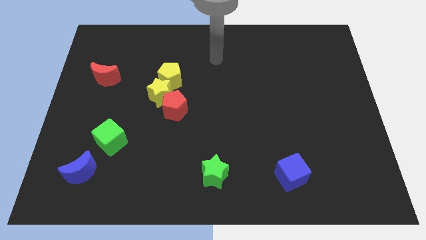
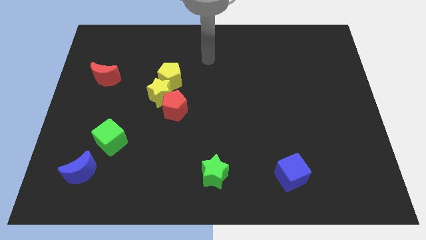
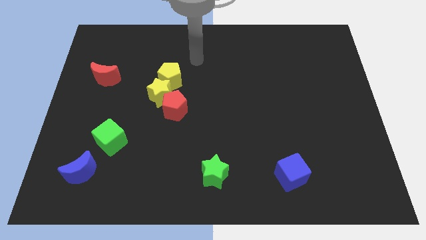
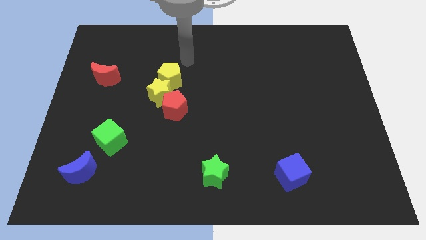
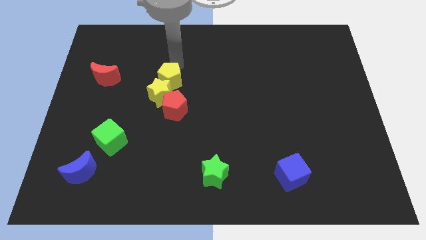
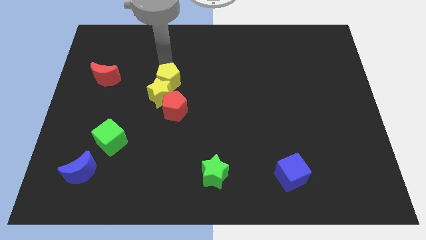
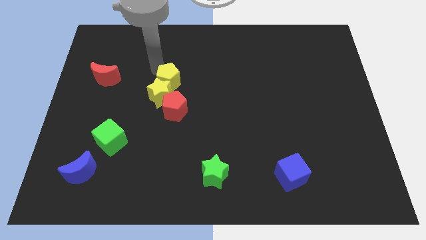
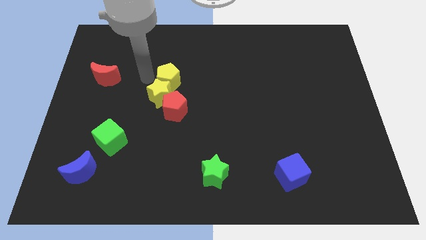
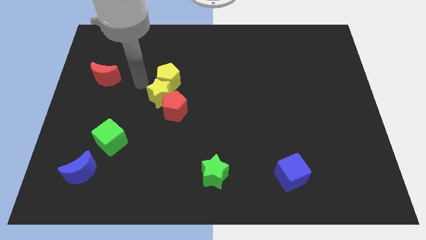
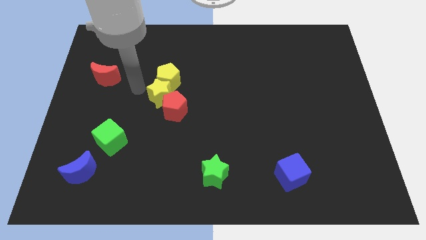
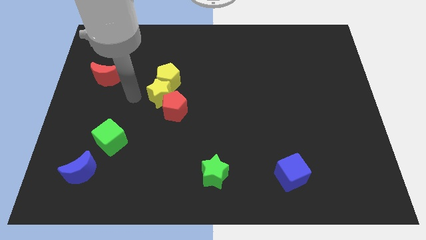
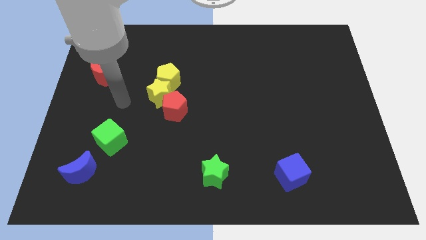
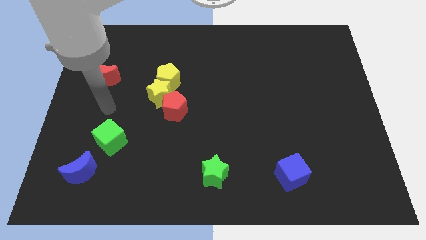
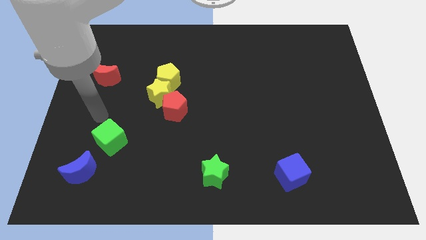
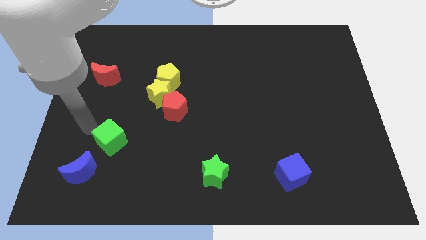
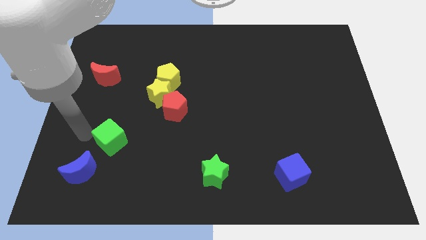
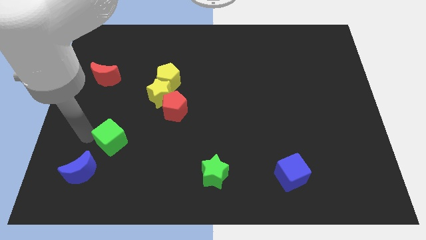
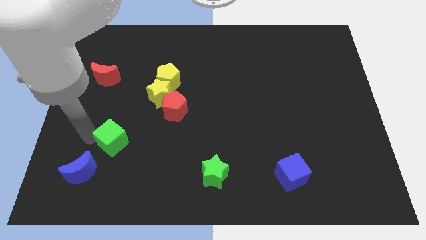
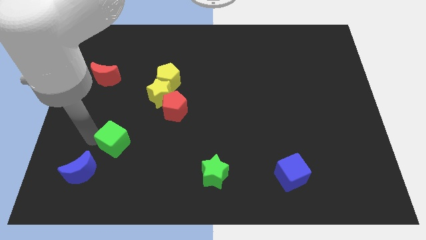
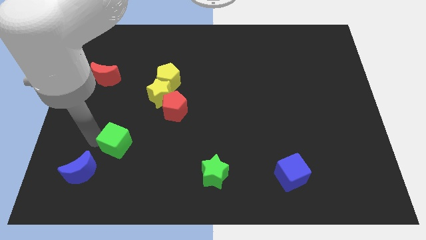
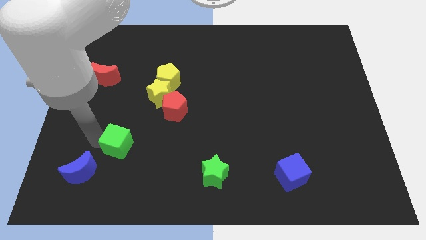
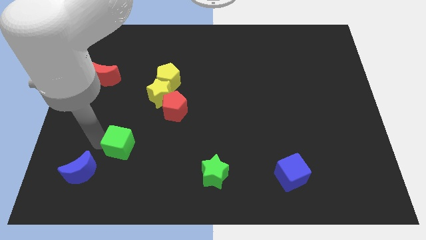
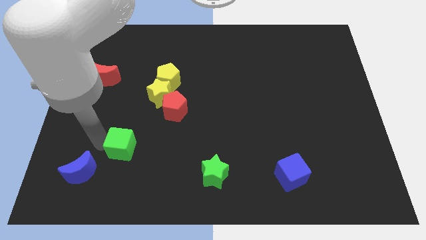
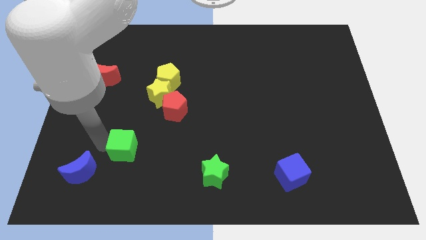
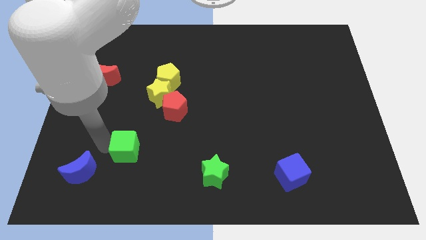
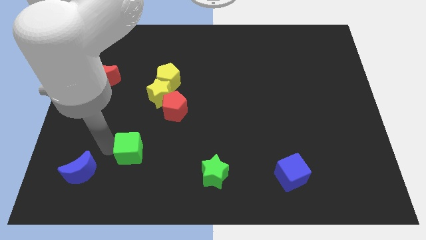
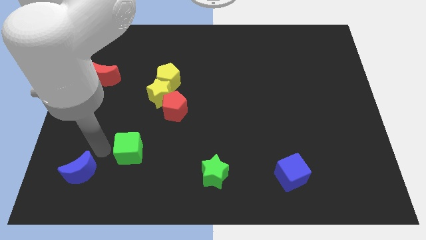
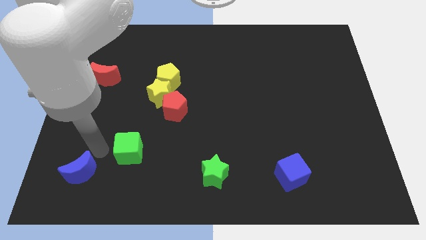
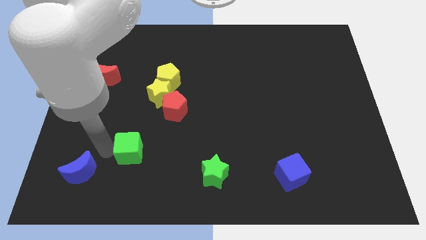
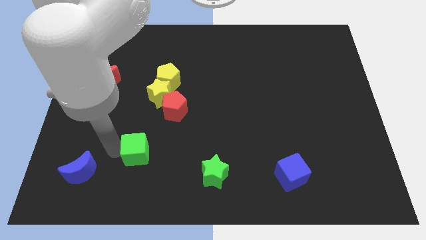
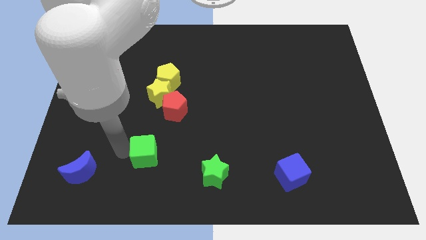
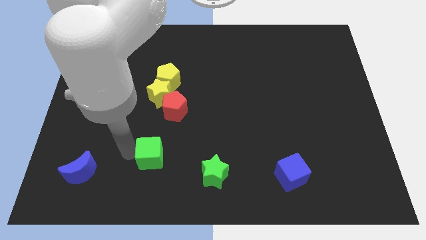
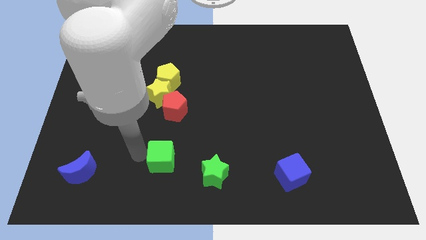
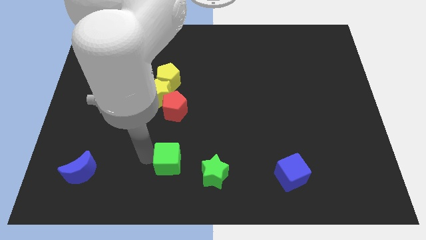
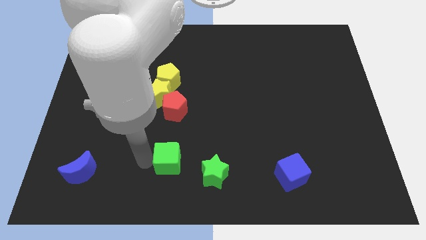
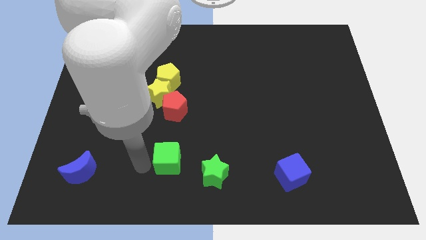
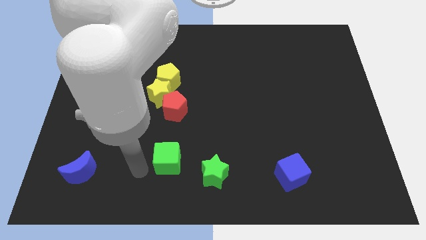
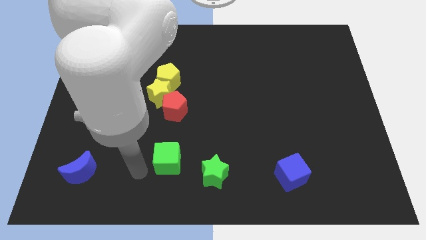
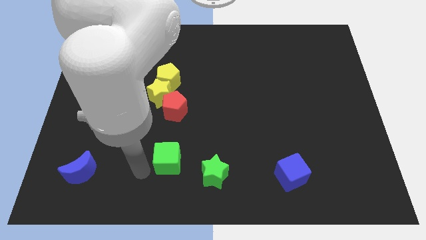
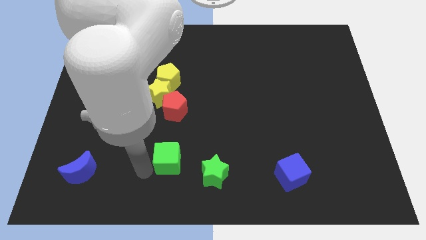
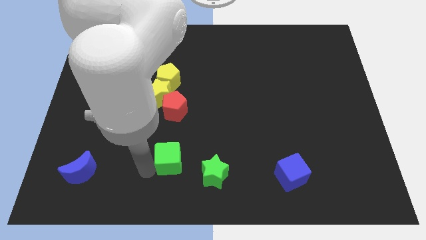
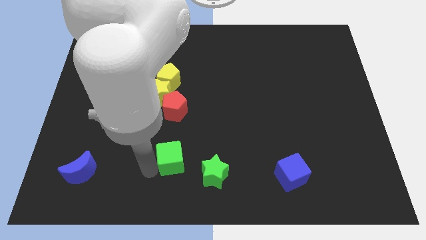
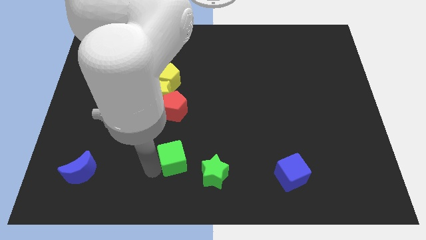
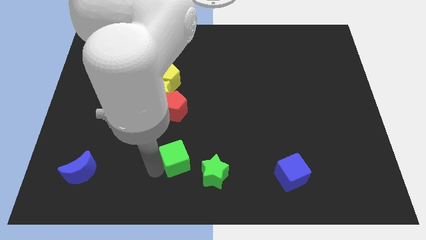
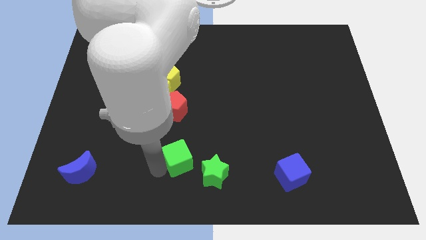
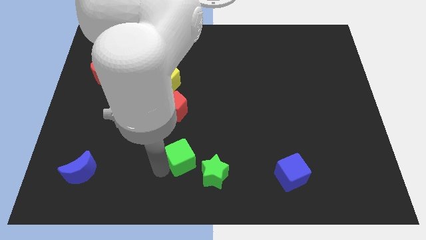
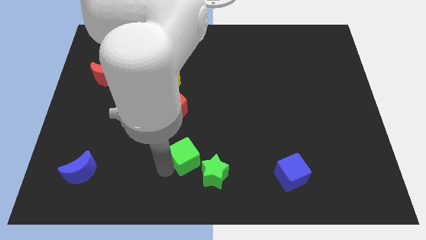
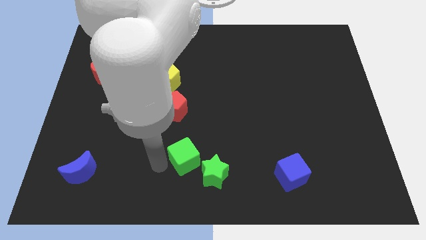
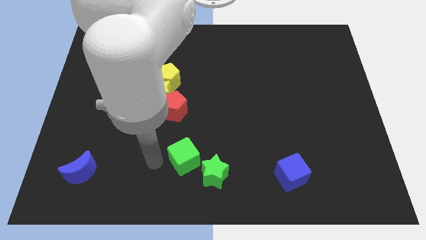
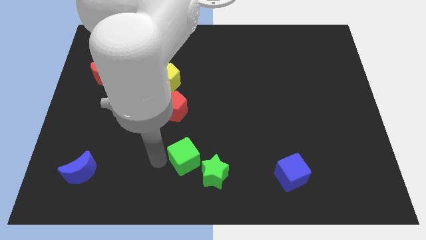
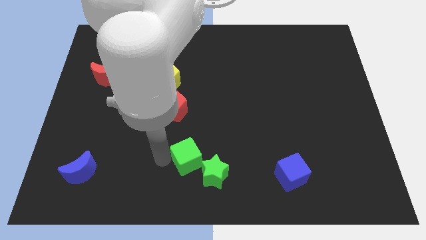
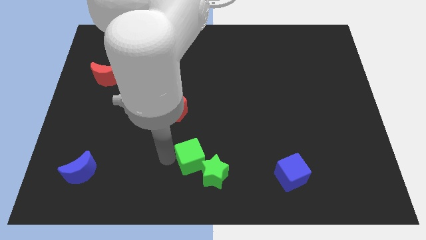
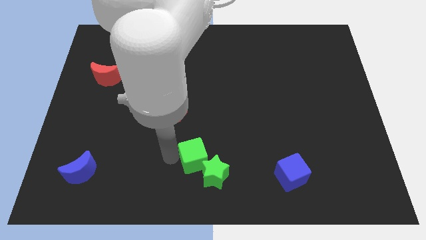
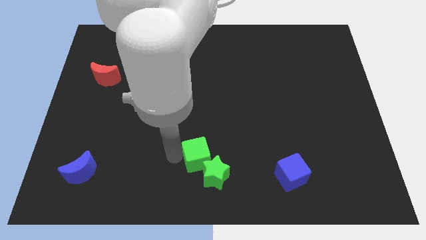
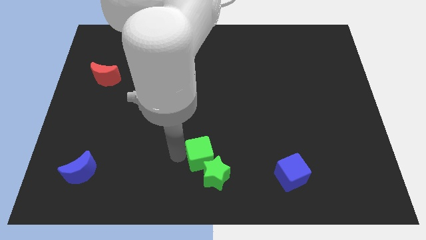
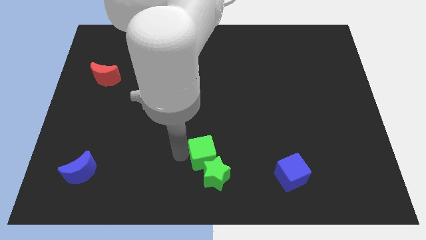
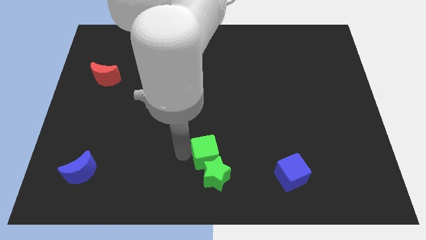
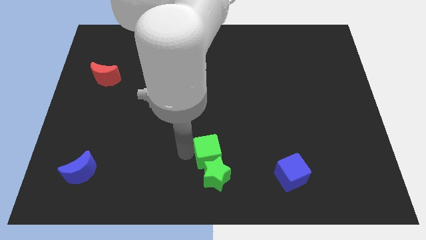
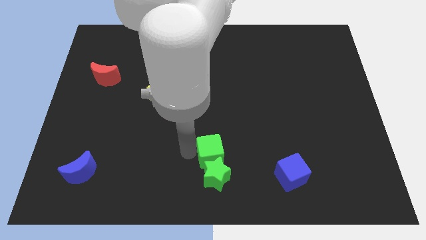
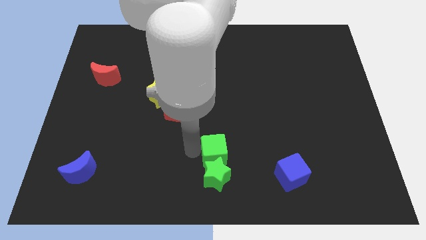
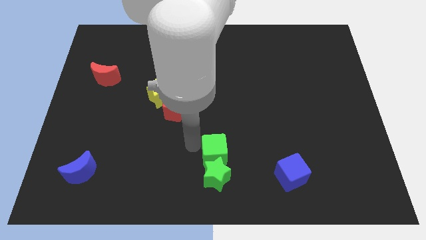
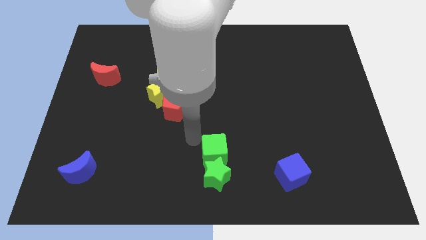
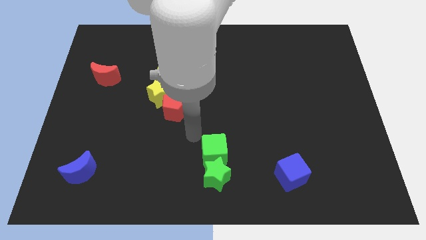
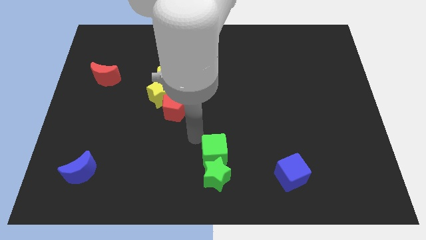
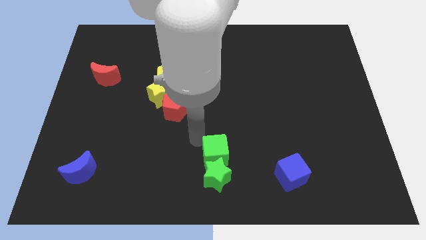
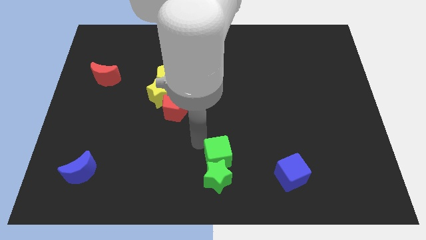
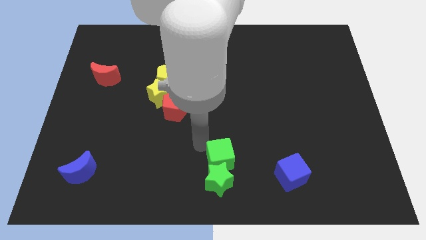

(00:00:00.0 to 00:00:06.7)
slide the green cube left of the blue cube

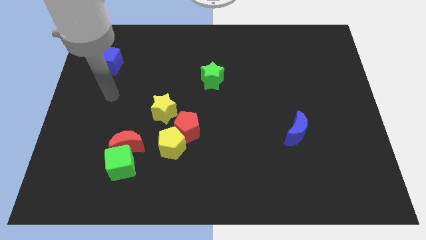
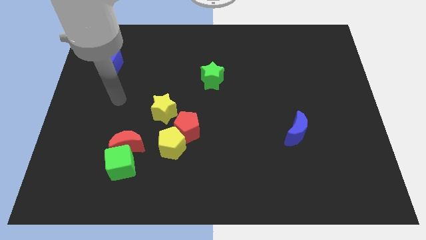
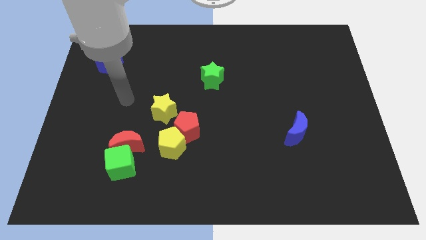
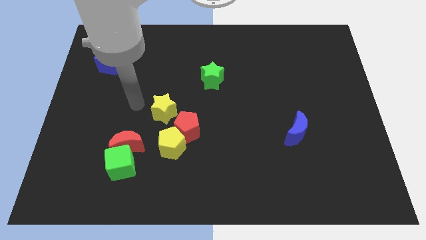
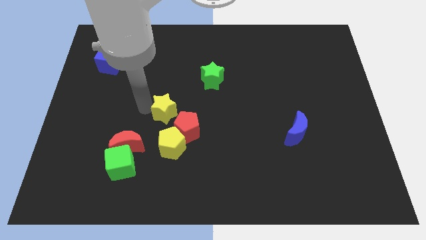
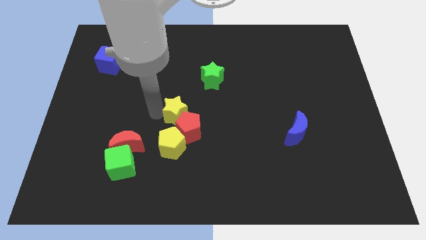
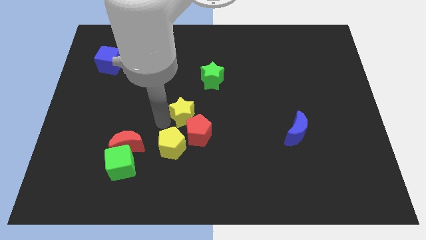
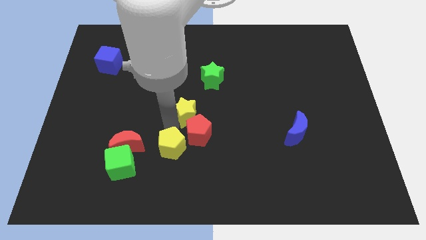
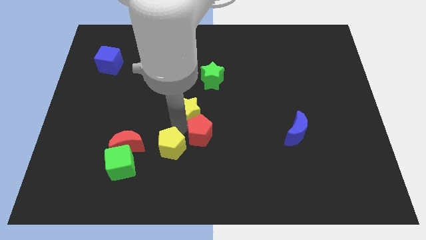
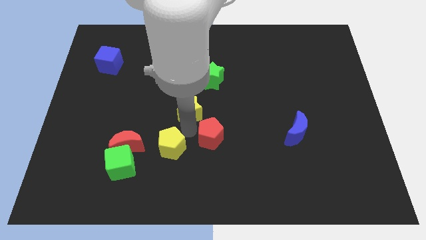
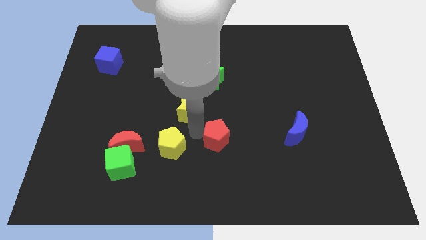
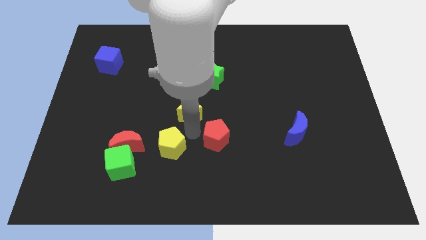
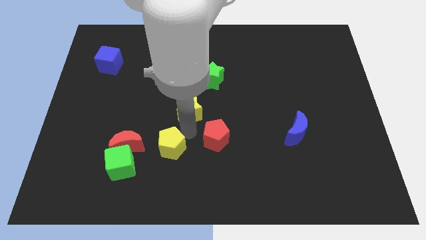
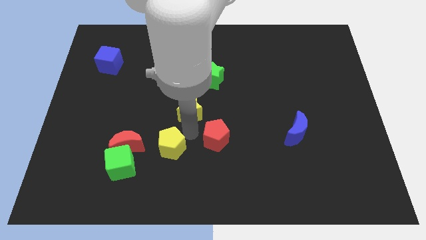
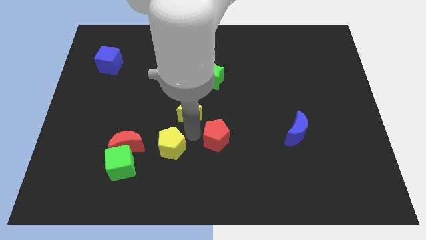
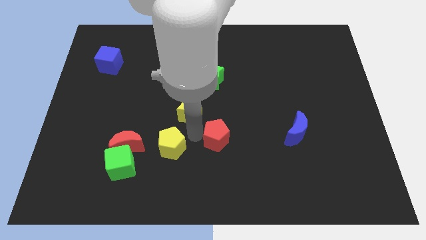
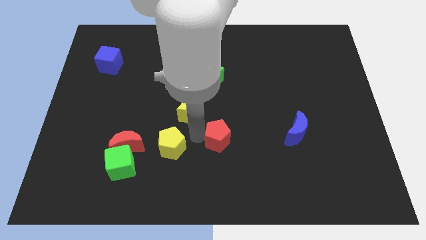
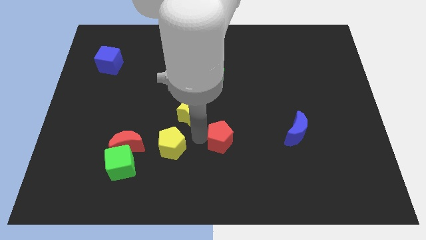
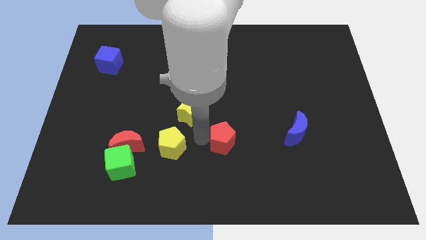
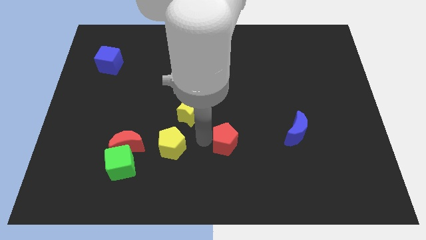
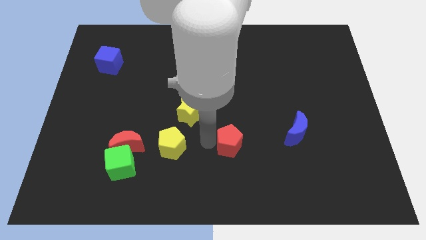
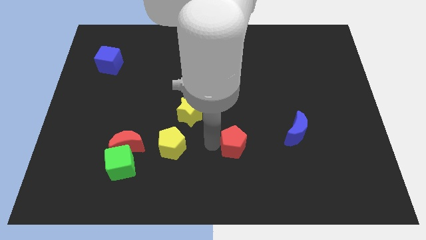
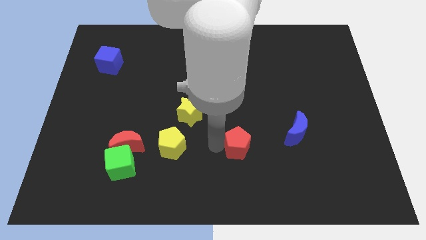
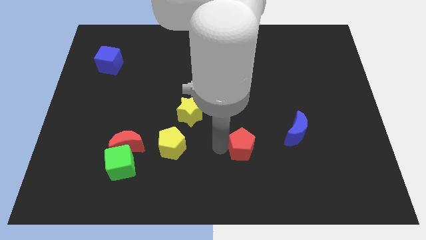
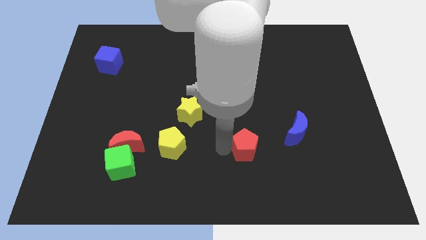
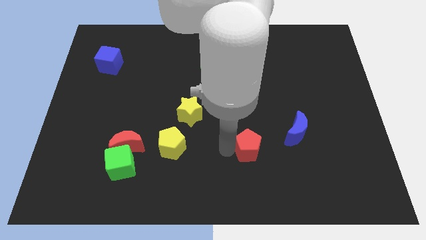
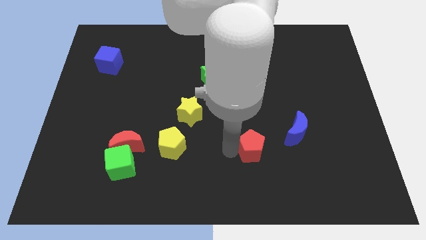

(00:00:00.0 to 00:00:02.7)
slide the red pentagon to the bottom left side of the blue moon
